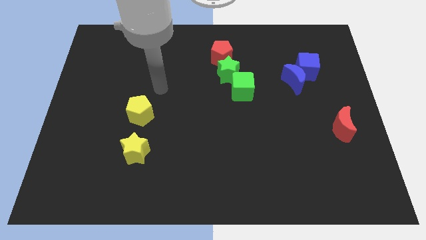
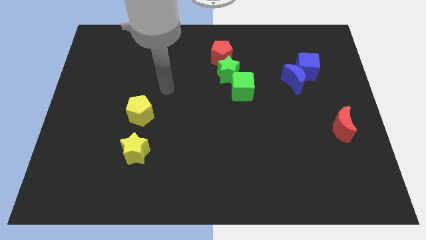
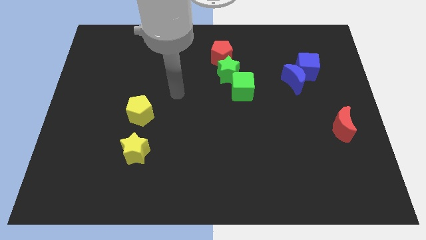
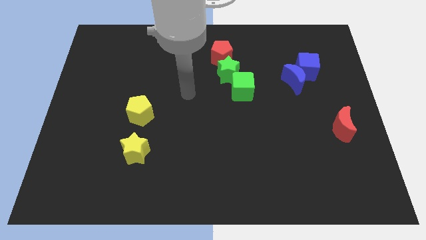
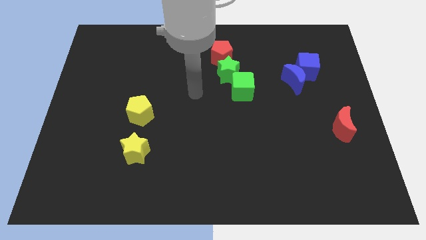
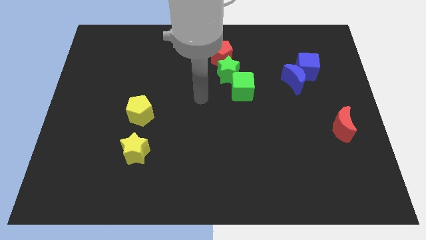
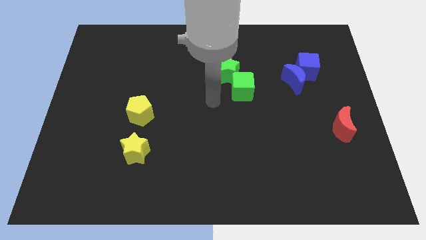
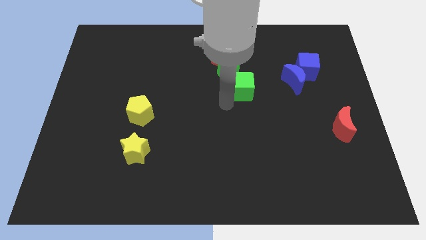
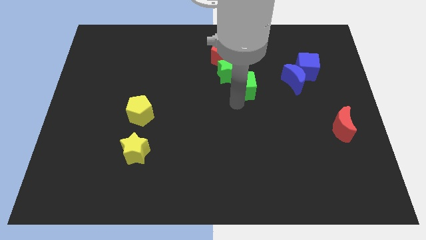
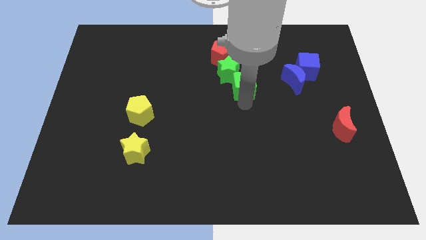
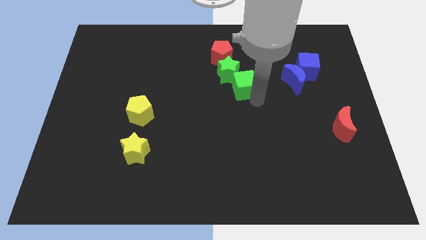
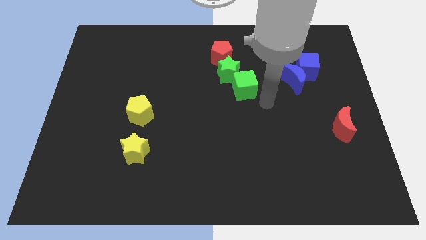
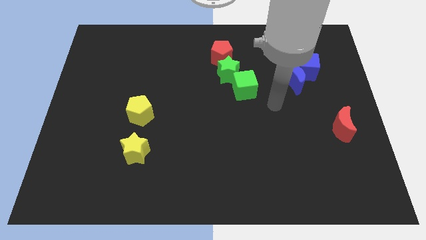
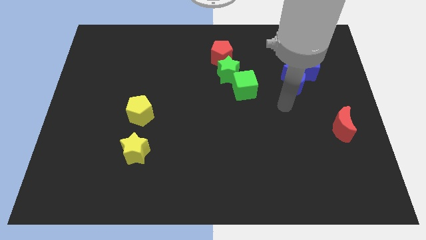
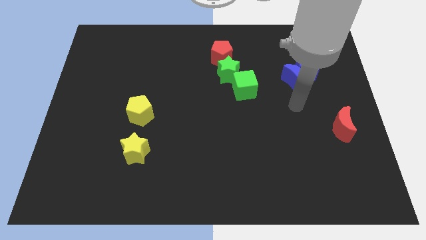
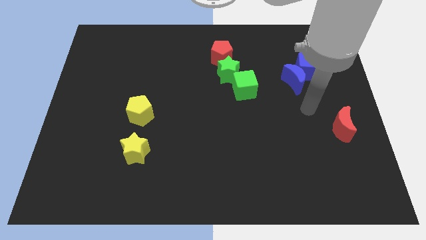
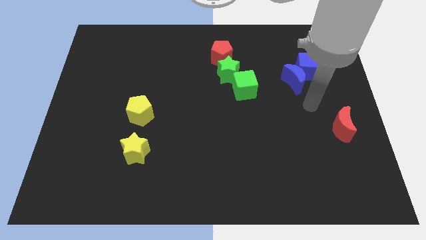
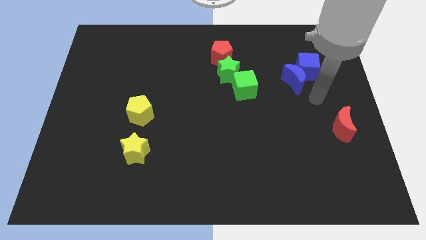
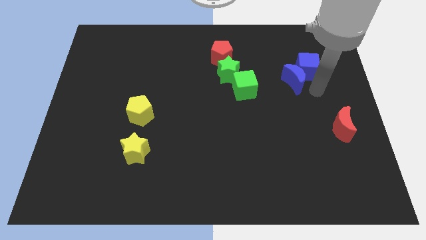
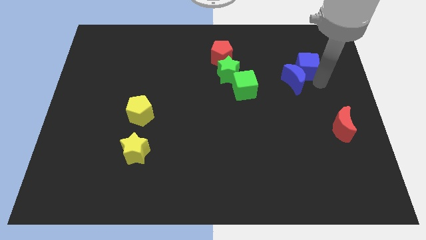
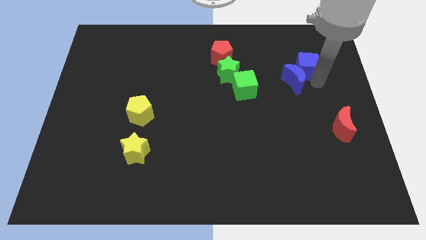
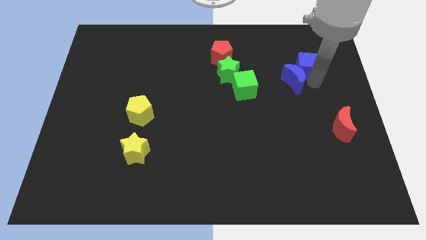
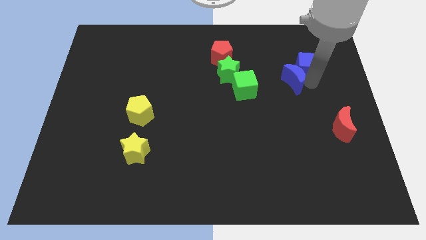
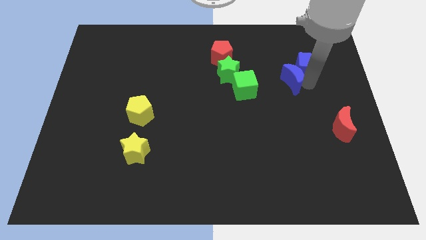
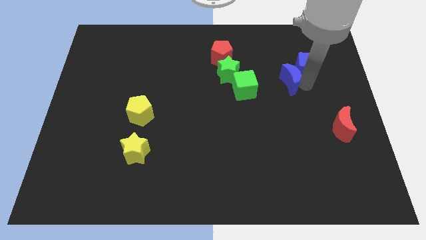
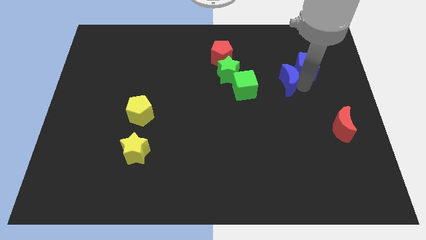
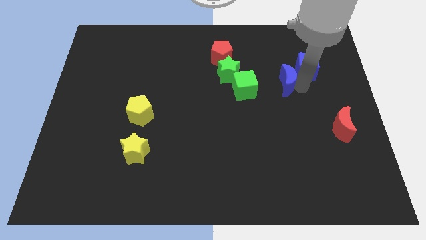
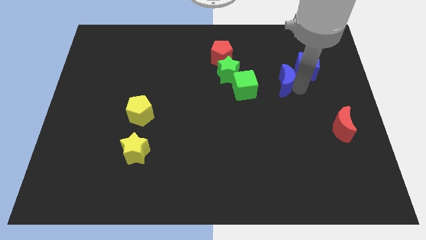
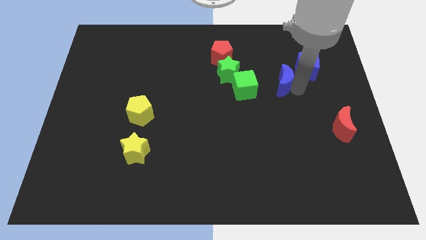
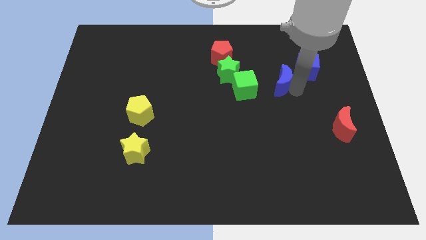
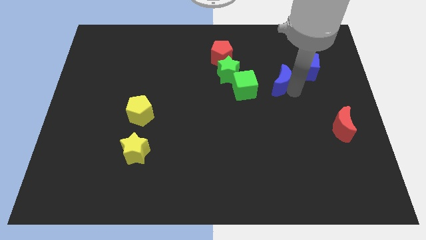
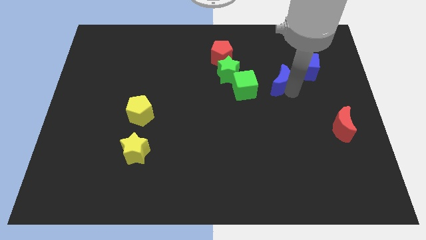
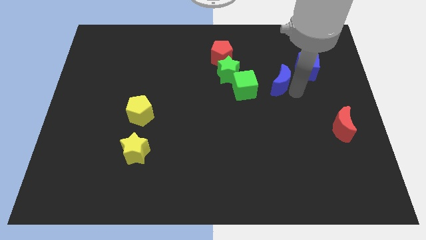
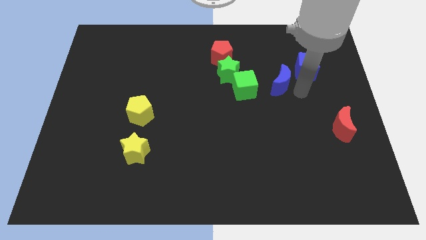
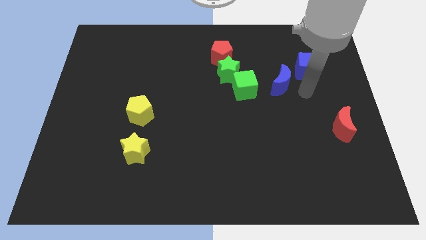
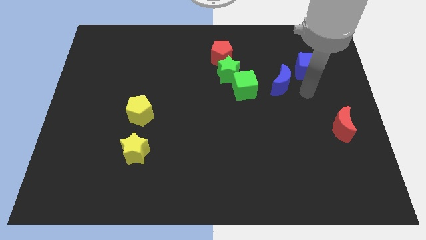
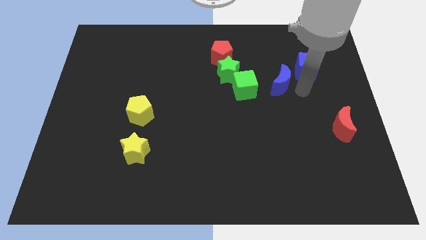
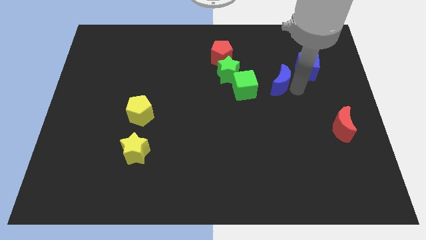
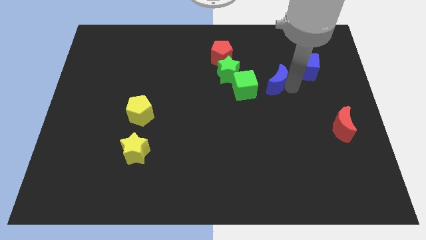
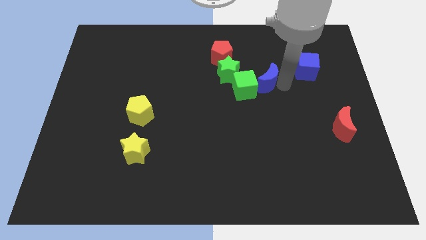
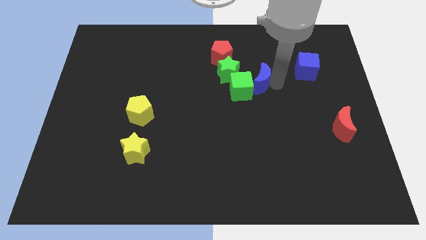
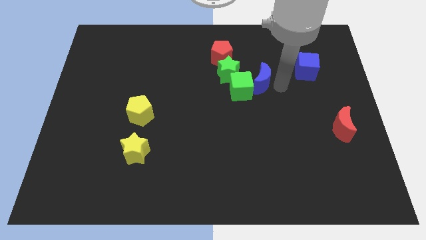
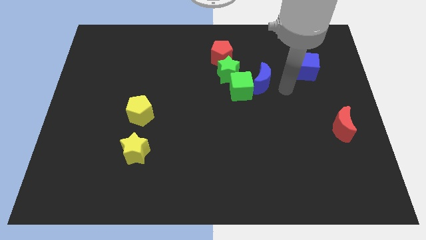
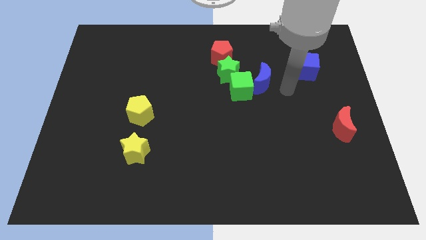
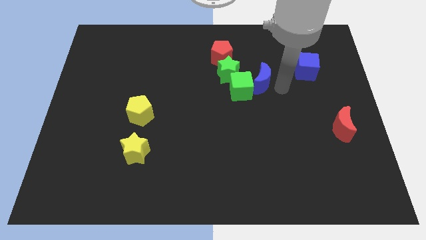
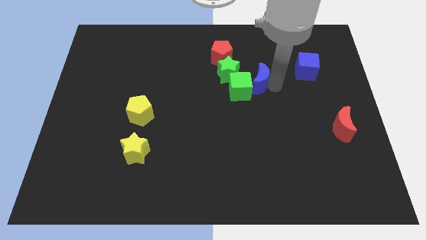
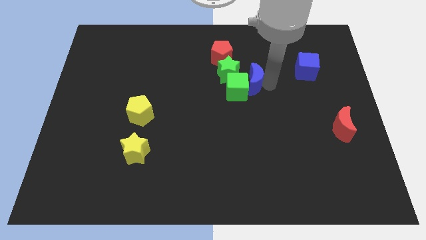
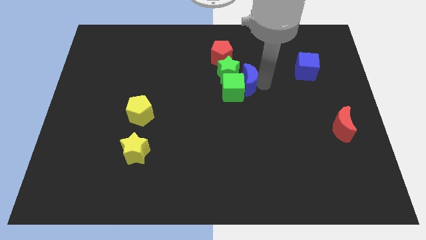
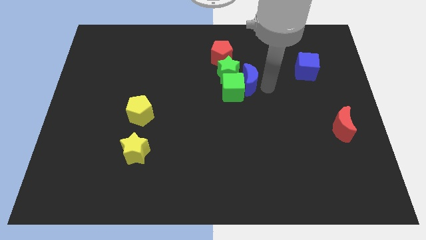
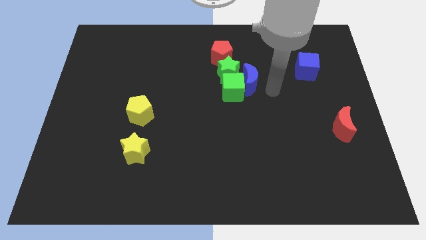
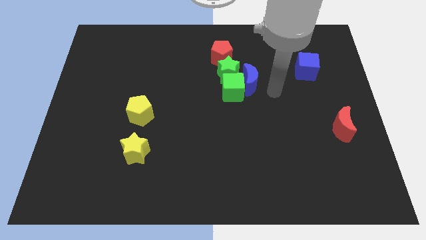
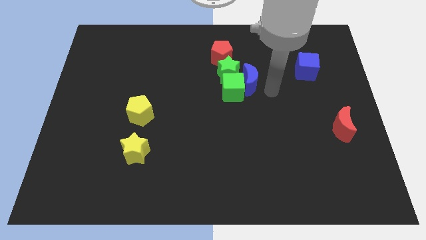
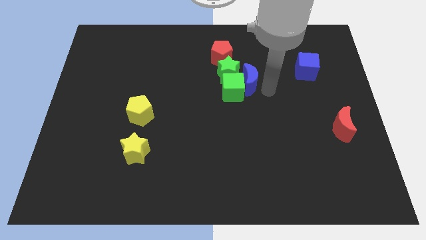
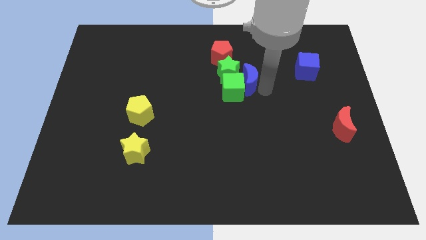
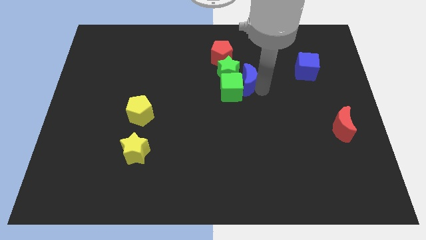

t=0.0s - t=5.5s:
slide the blue moon next to the green star

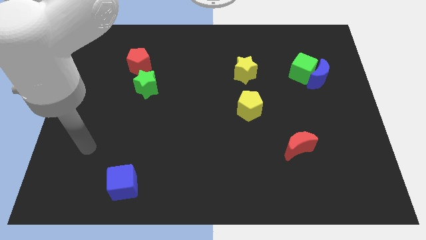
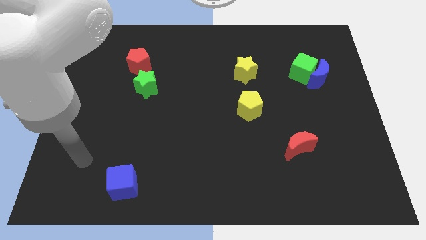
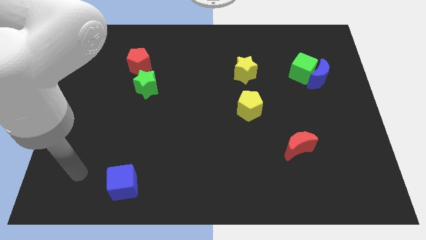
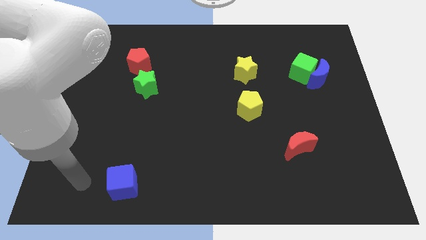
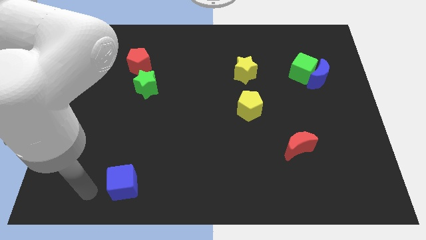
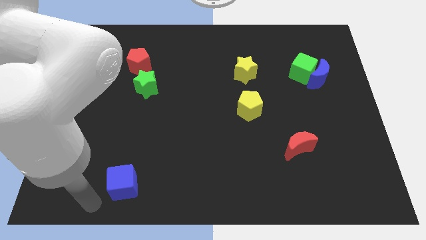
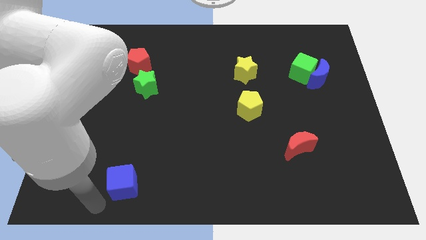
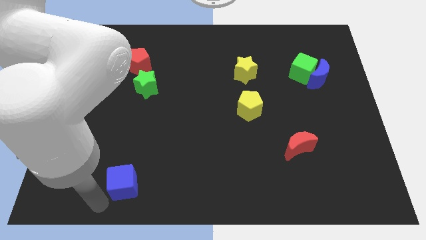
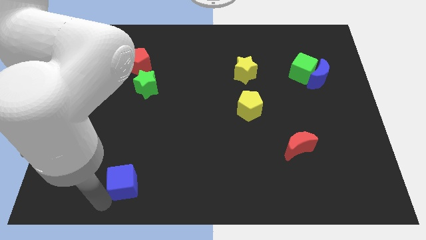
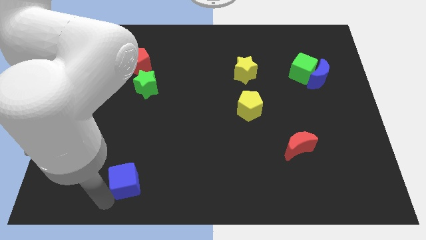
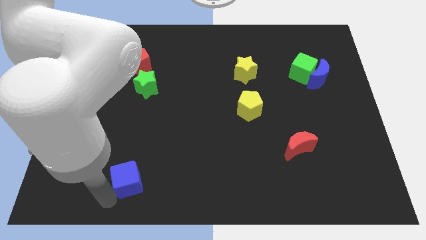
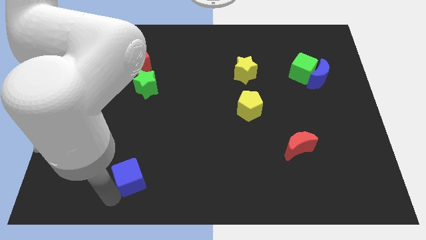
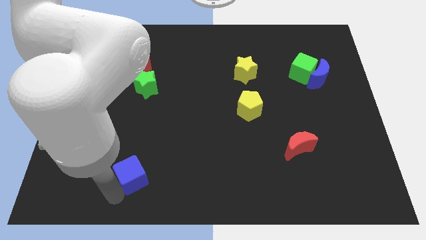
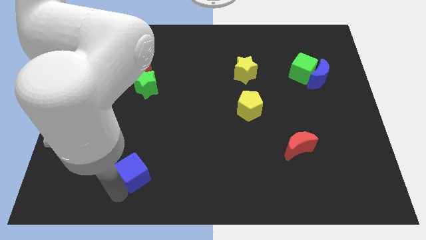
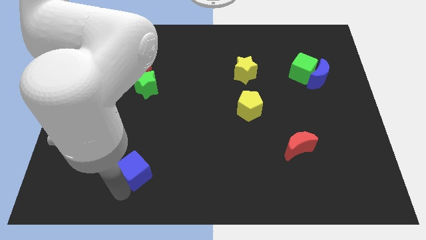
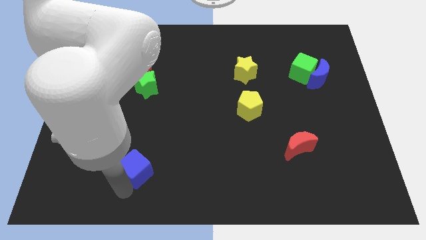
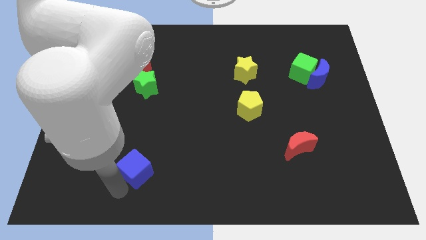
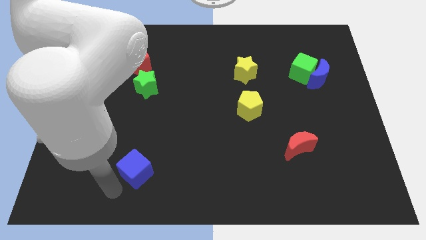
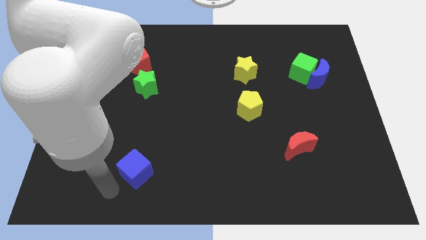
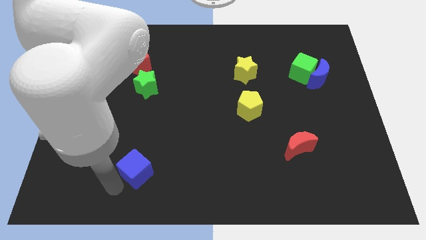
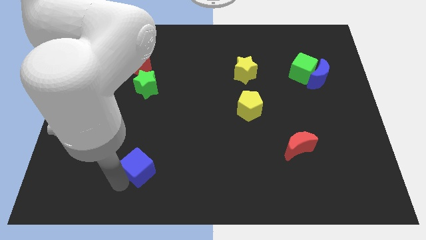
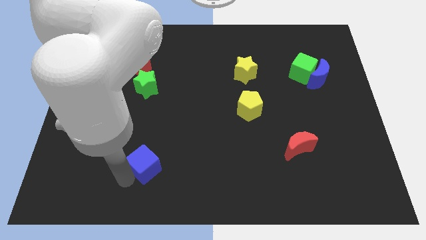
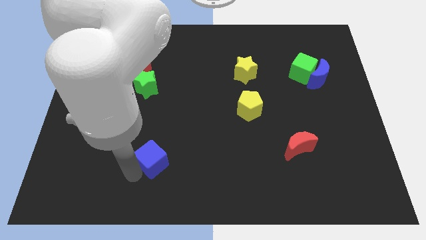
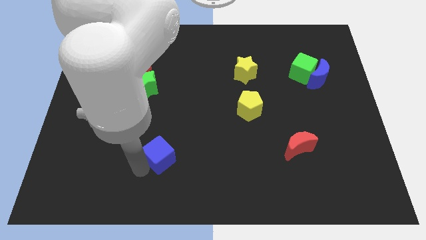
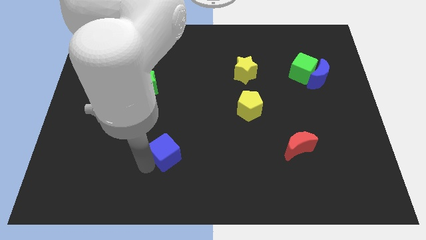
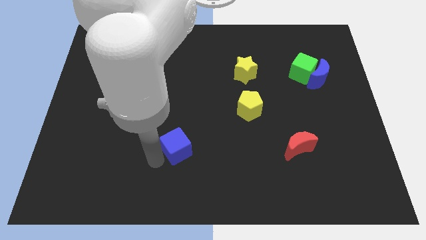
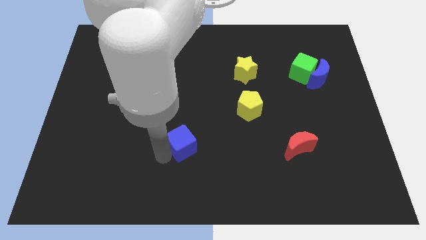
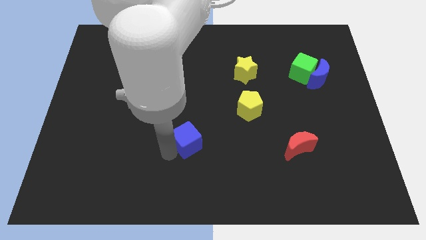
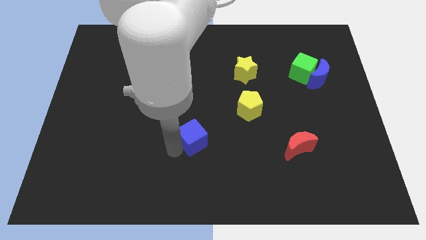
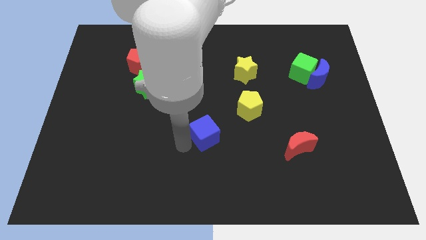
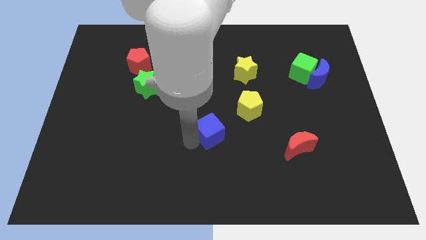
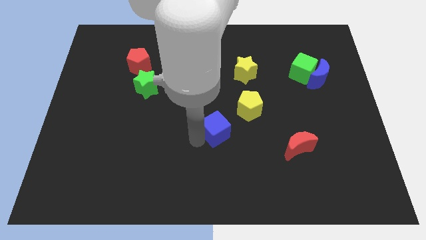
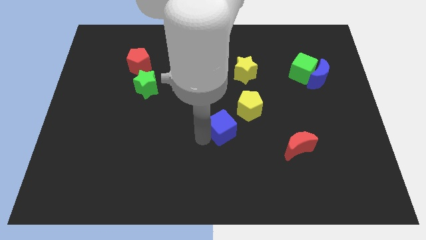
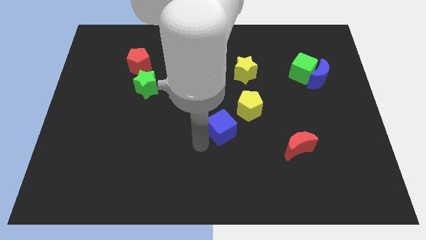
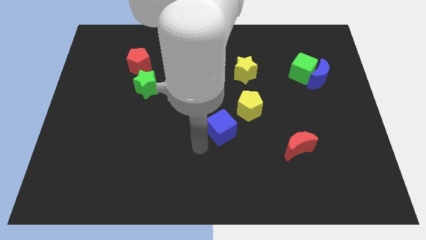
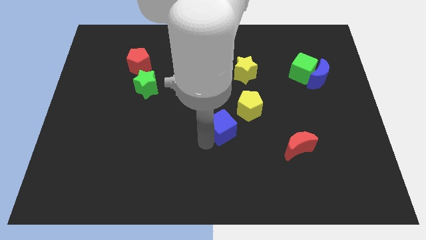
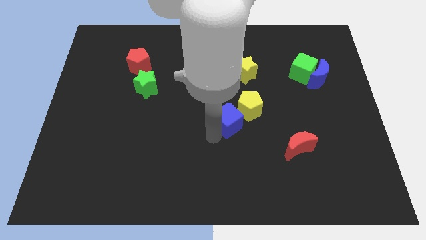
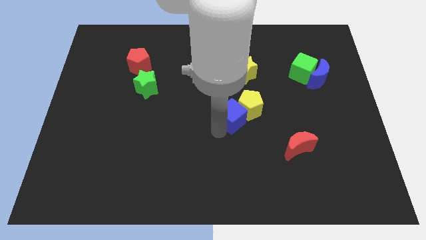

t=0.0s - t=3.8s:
slide the blue cube close to the yellow pentagon
